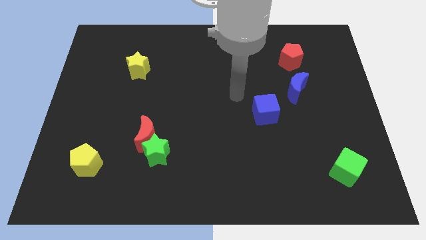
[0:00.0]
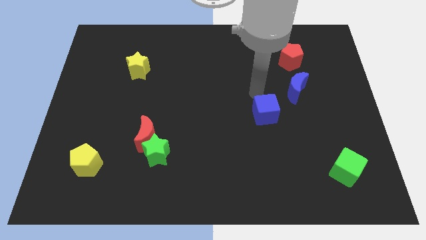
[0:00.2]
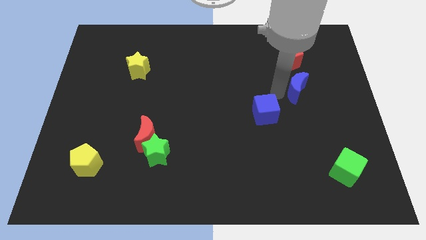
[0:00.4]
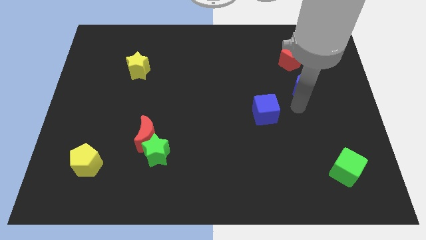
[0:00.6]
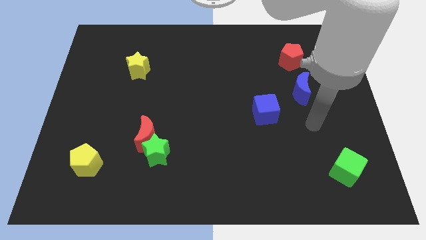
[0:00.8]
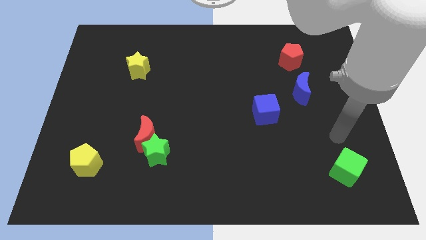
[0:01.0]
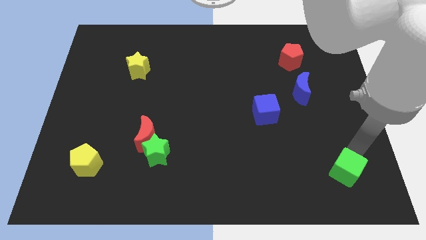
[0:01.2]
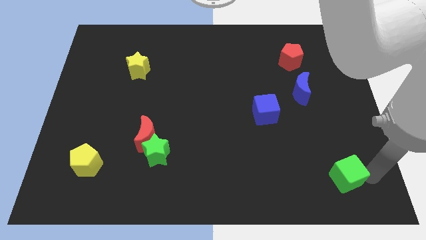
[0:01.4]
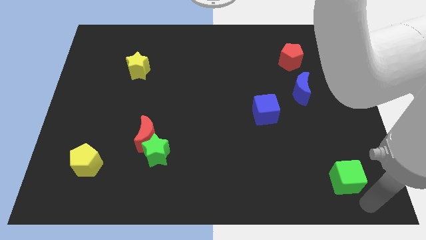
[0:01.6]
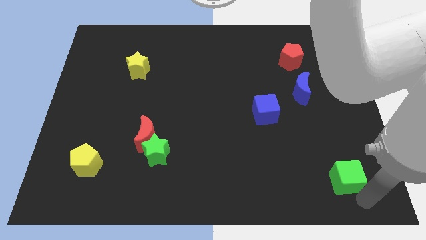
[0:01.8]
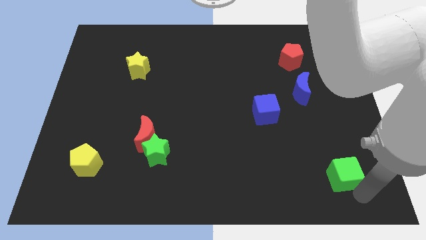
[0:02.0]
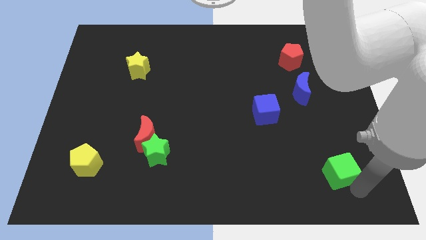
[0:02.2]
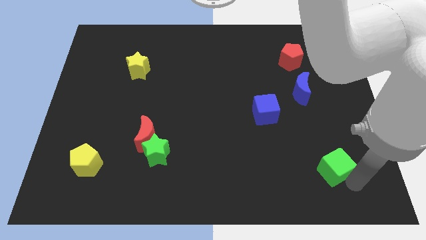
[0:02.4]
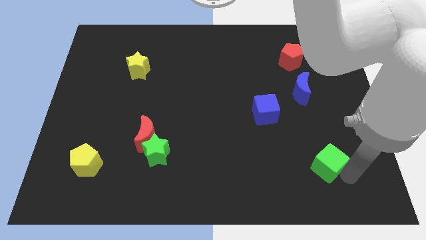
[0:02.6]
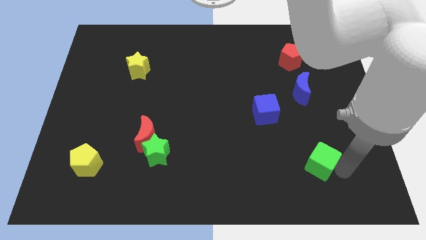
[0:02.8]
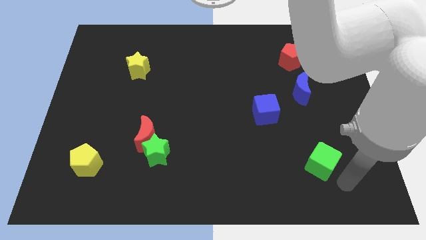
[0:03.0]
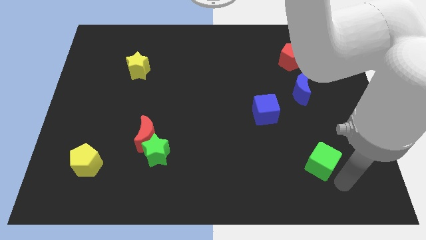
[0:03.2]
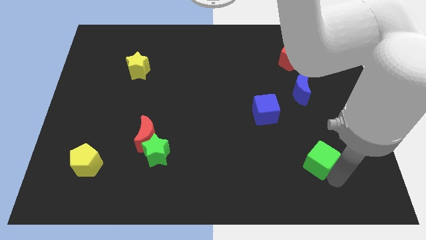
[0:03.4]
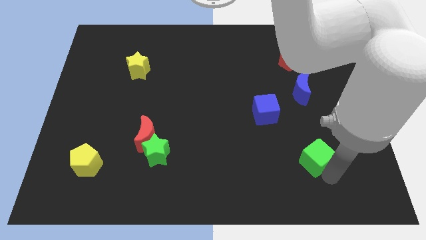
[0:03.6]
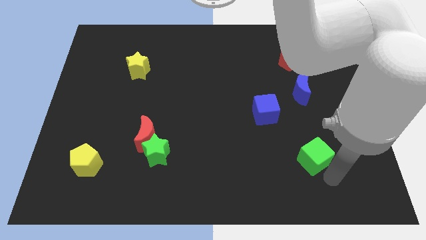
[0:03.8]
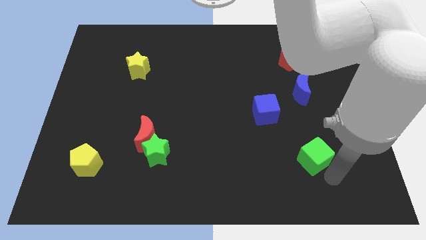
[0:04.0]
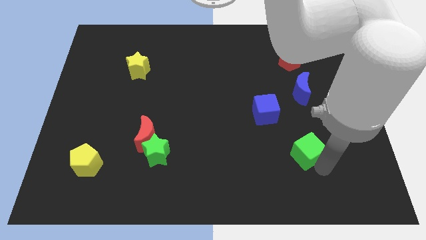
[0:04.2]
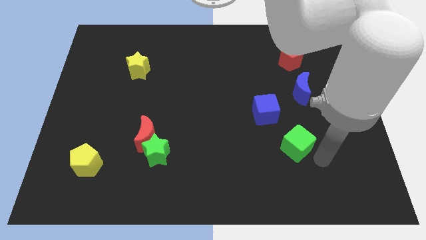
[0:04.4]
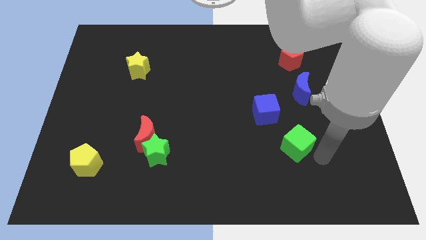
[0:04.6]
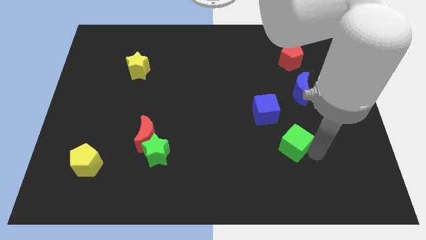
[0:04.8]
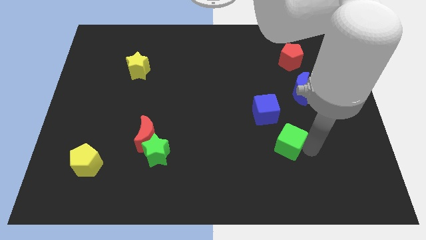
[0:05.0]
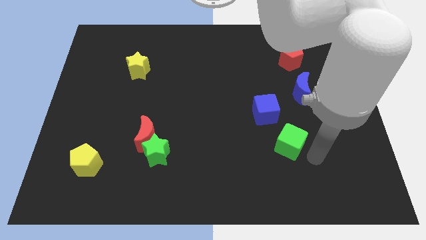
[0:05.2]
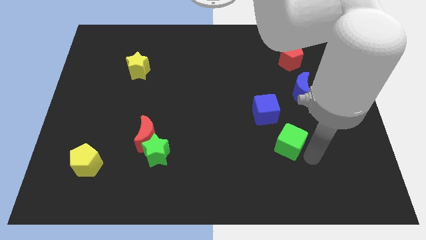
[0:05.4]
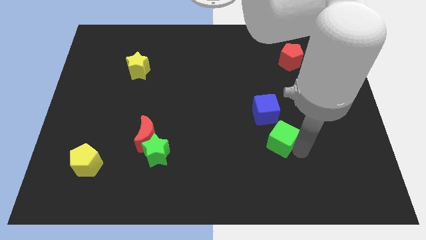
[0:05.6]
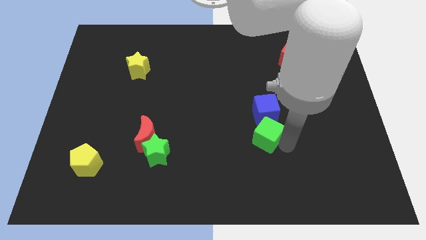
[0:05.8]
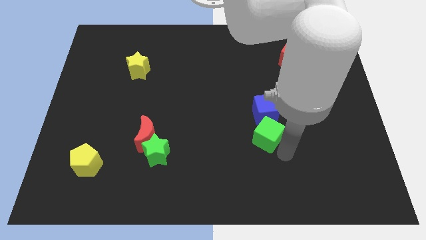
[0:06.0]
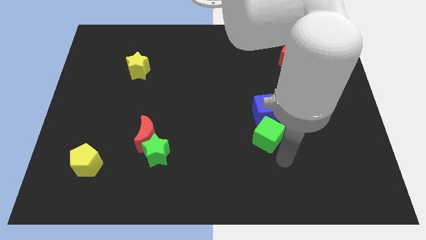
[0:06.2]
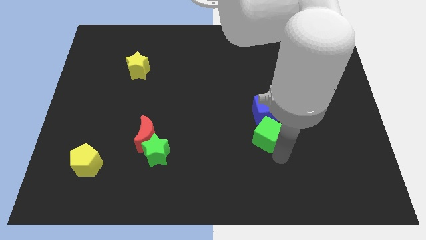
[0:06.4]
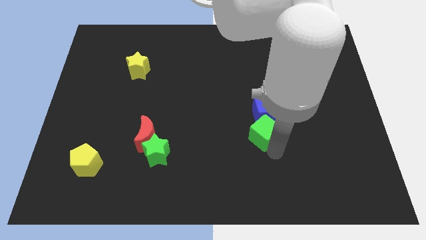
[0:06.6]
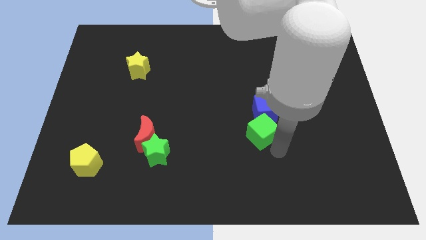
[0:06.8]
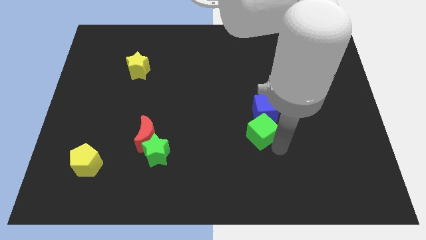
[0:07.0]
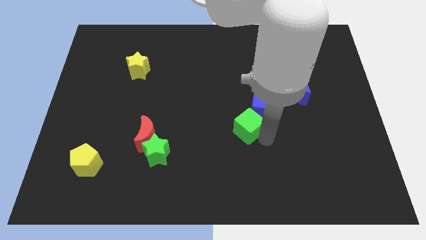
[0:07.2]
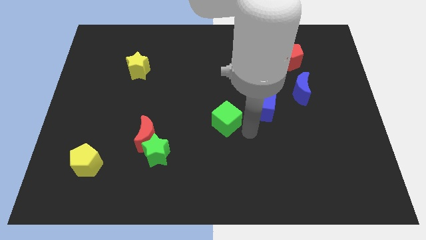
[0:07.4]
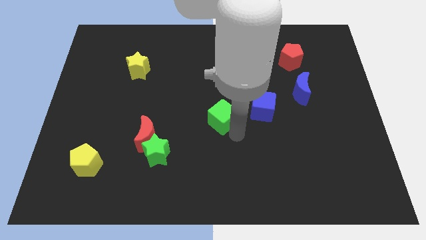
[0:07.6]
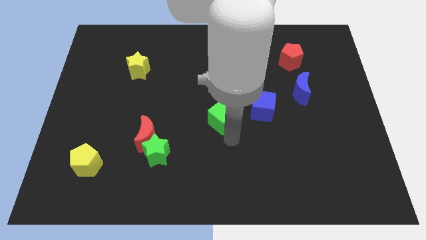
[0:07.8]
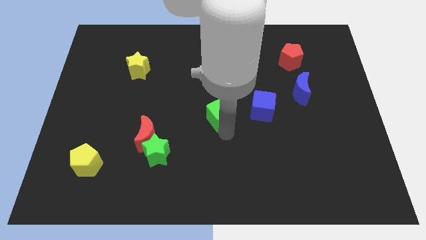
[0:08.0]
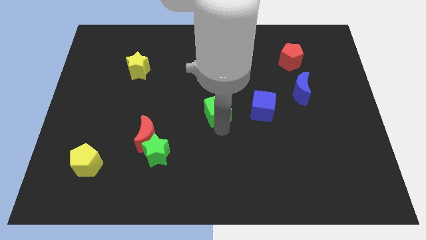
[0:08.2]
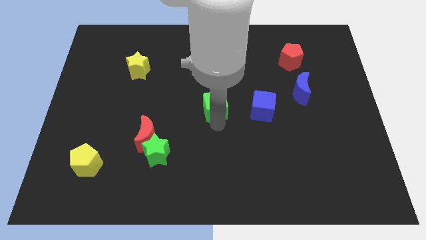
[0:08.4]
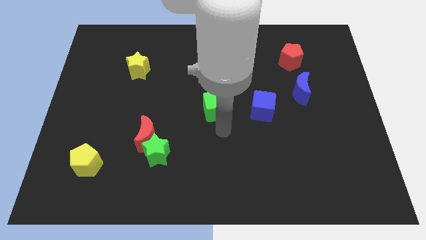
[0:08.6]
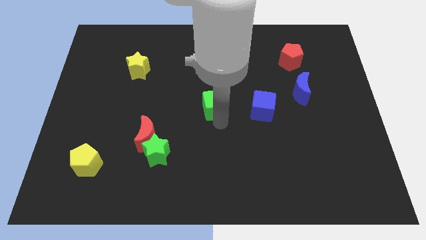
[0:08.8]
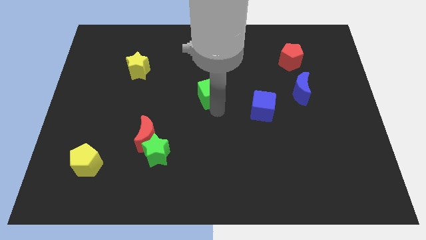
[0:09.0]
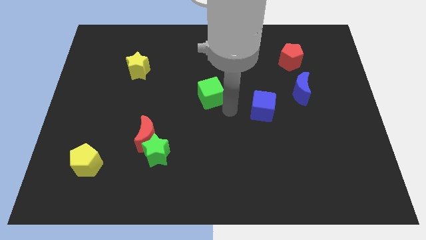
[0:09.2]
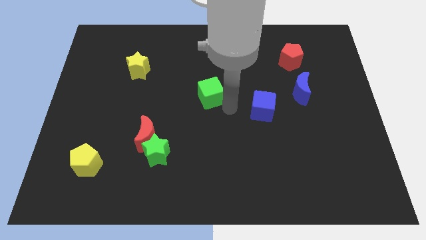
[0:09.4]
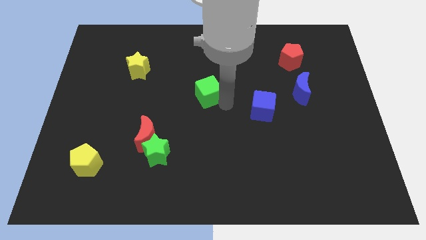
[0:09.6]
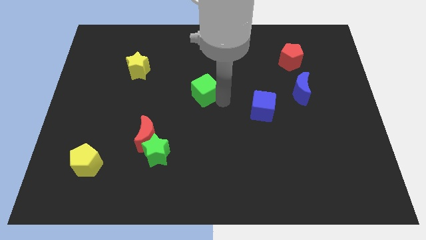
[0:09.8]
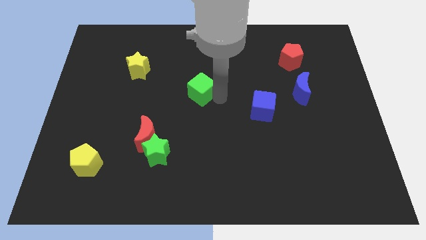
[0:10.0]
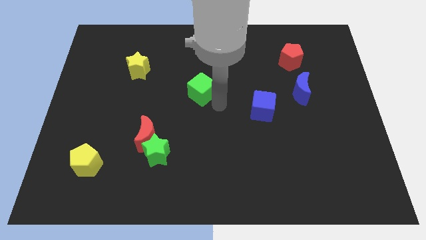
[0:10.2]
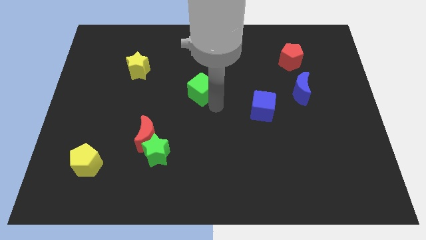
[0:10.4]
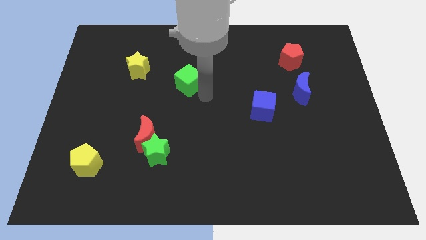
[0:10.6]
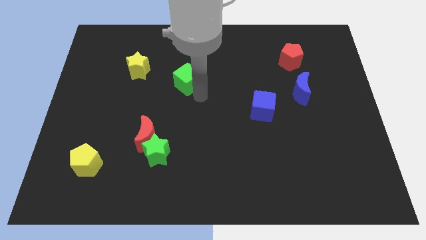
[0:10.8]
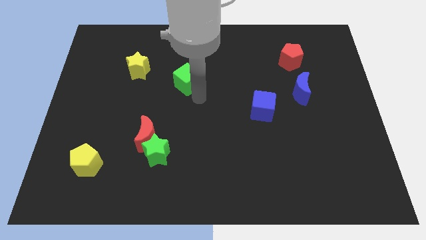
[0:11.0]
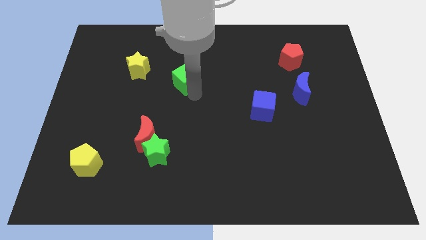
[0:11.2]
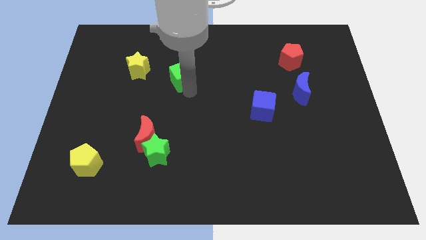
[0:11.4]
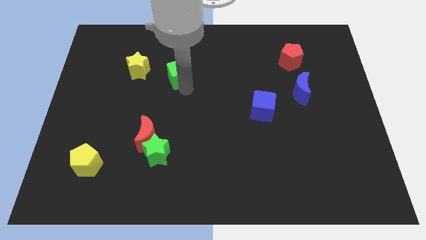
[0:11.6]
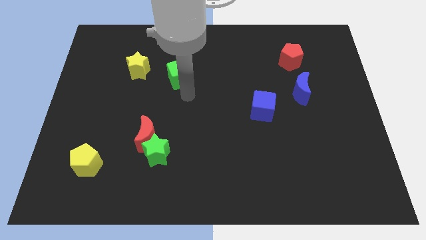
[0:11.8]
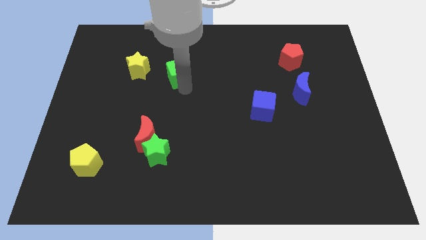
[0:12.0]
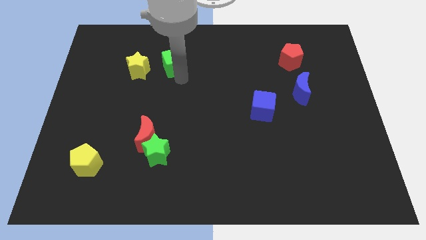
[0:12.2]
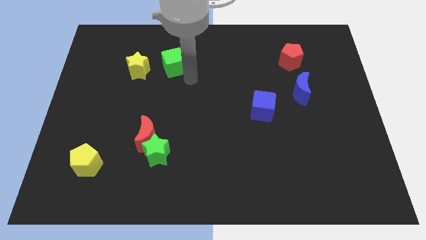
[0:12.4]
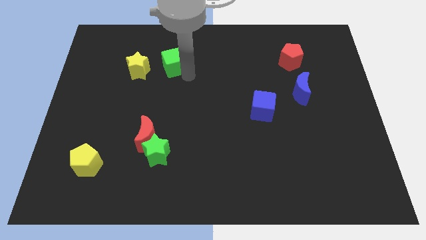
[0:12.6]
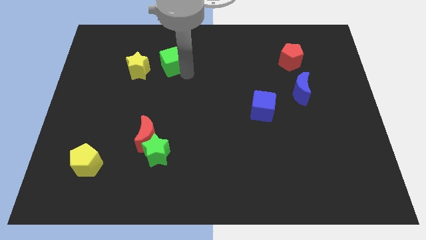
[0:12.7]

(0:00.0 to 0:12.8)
push the green cube diagonally up and to the right of the yellow star
